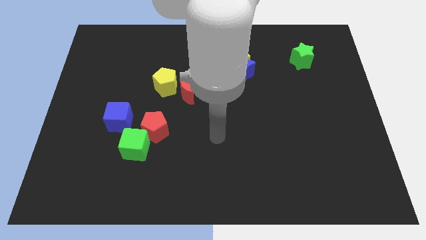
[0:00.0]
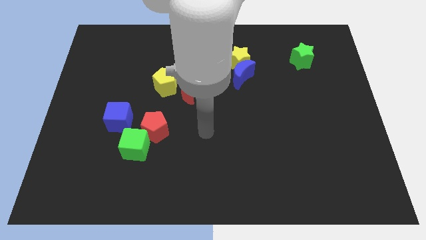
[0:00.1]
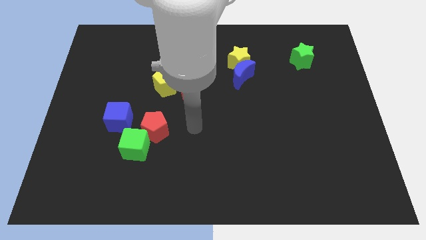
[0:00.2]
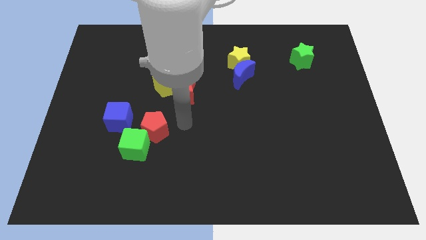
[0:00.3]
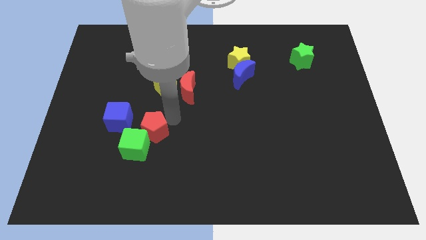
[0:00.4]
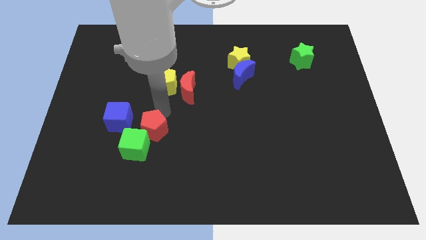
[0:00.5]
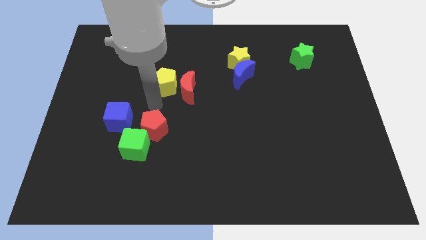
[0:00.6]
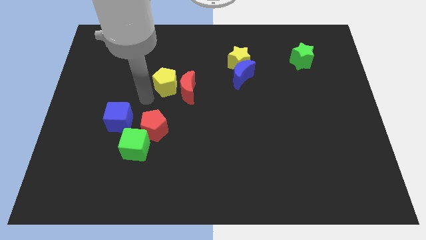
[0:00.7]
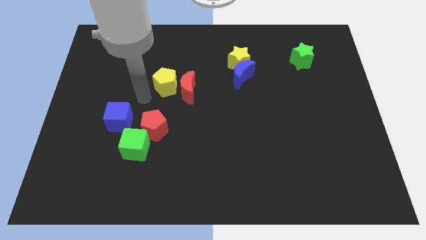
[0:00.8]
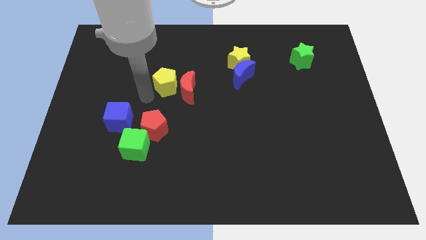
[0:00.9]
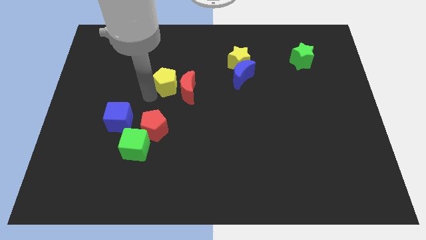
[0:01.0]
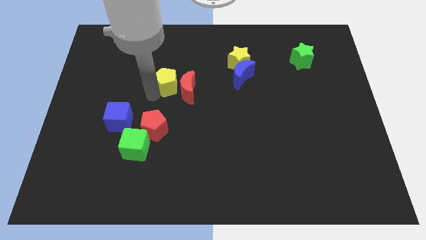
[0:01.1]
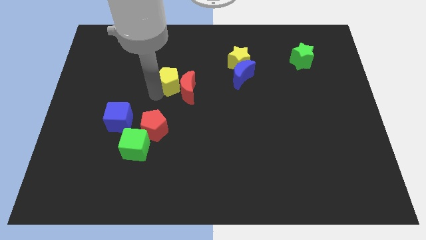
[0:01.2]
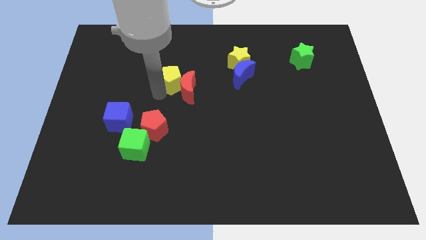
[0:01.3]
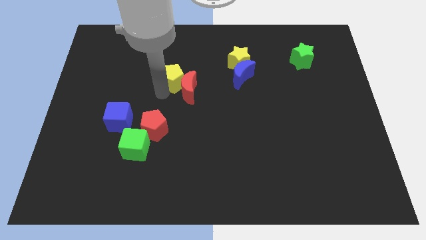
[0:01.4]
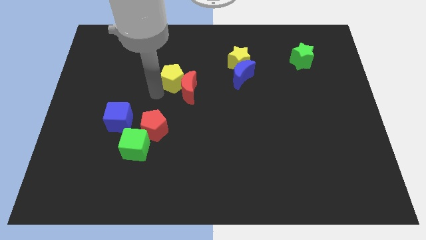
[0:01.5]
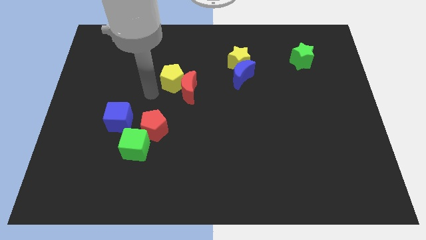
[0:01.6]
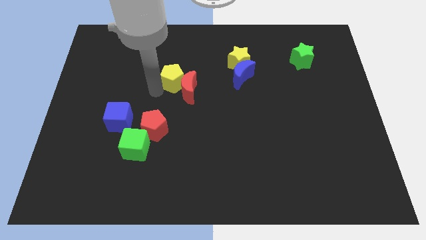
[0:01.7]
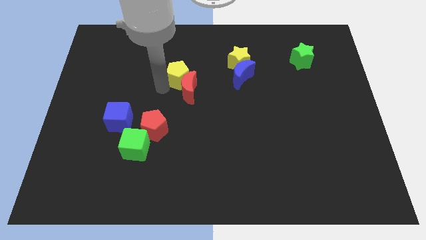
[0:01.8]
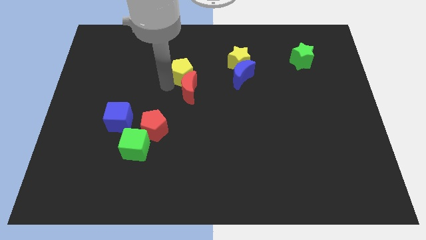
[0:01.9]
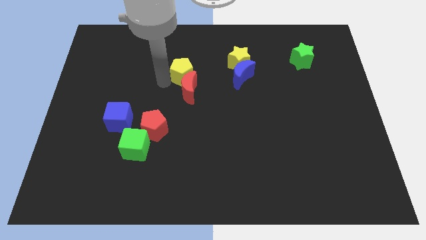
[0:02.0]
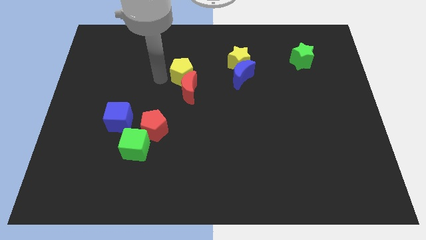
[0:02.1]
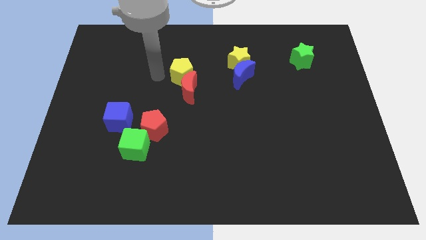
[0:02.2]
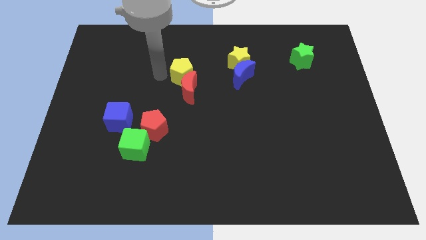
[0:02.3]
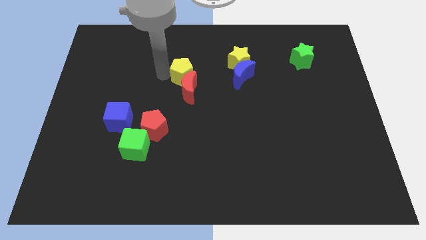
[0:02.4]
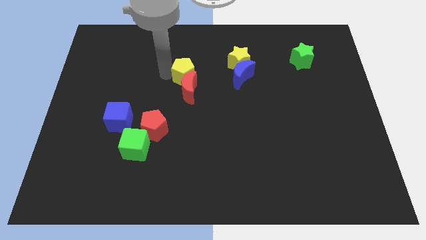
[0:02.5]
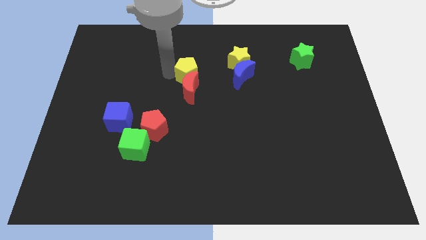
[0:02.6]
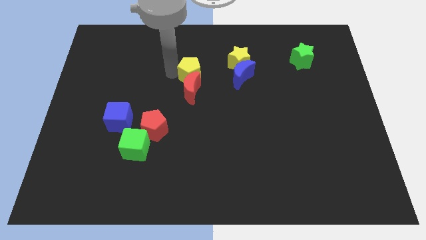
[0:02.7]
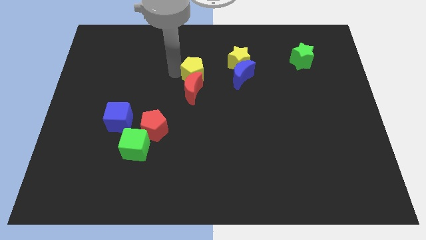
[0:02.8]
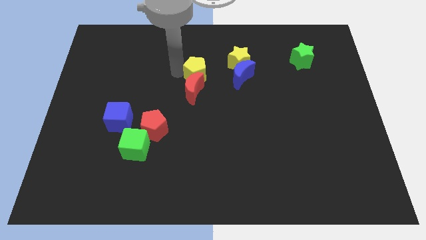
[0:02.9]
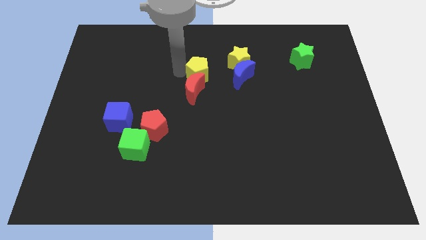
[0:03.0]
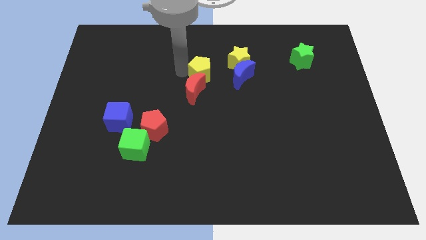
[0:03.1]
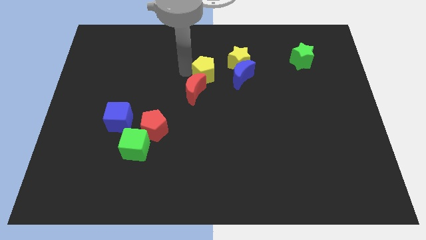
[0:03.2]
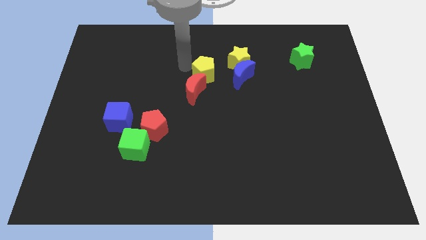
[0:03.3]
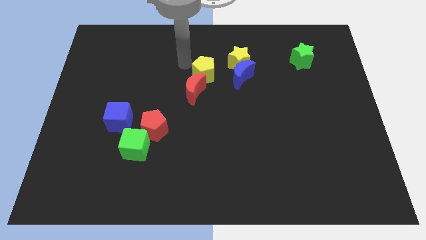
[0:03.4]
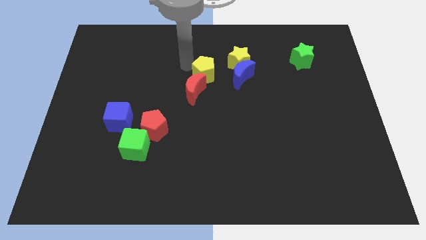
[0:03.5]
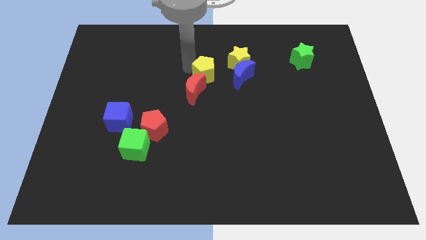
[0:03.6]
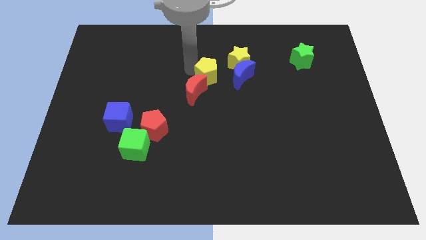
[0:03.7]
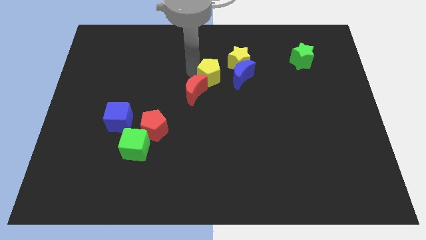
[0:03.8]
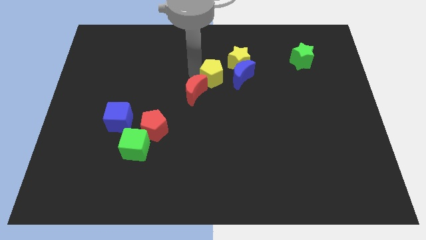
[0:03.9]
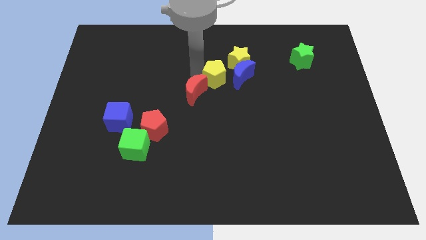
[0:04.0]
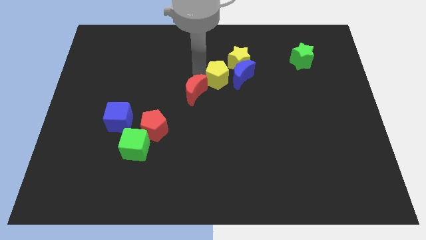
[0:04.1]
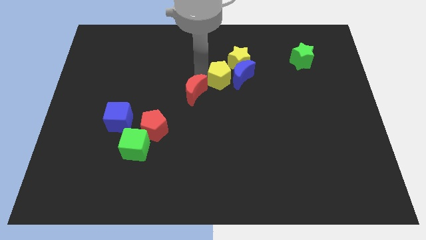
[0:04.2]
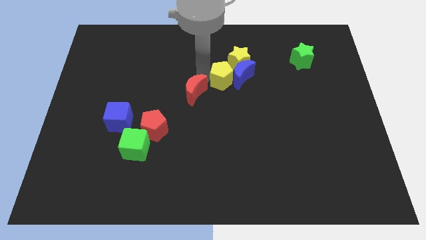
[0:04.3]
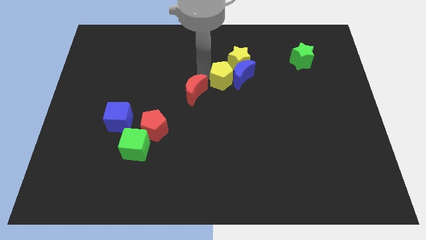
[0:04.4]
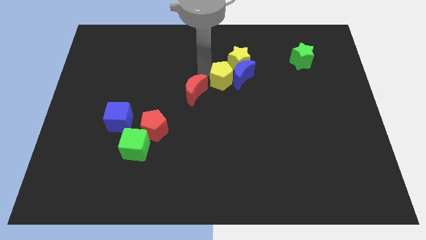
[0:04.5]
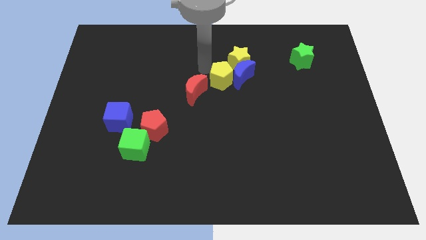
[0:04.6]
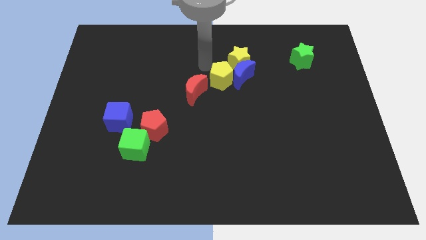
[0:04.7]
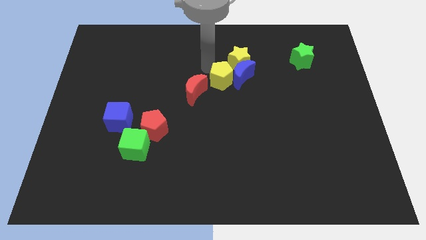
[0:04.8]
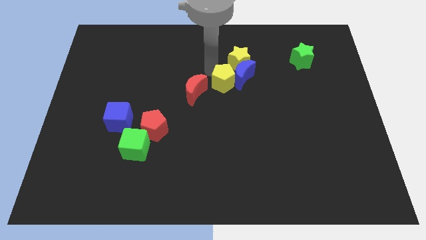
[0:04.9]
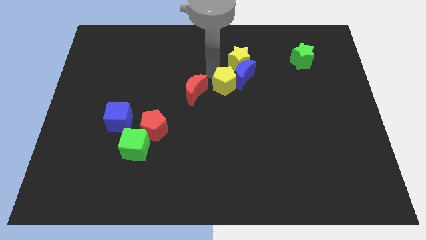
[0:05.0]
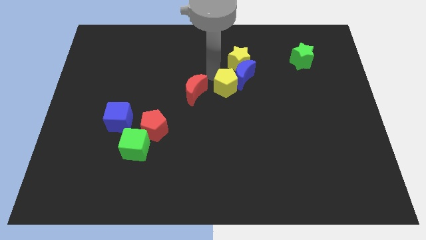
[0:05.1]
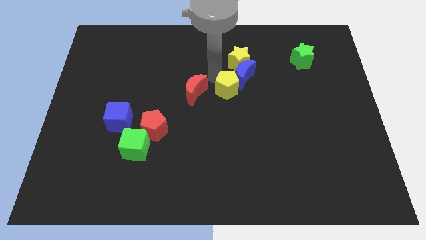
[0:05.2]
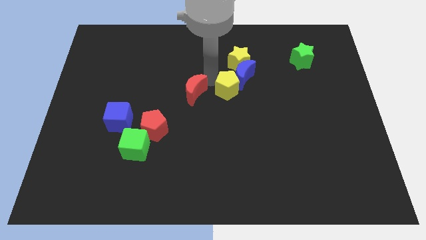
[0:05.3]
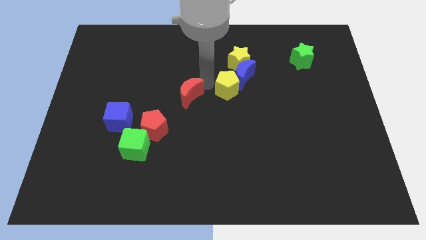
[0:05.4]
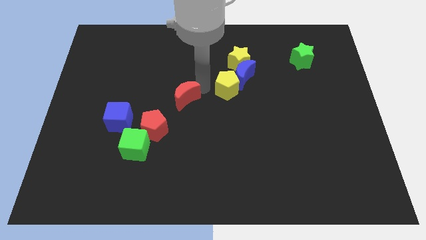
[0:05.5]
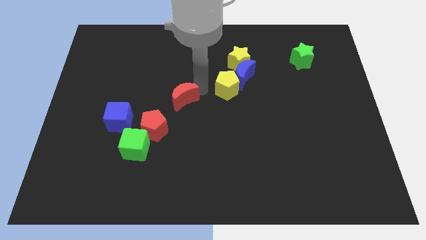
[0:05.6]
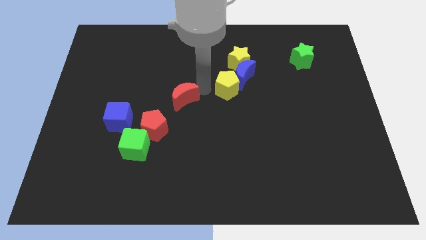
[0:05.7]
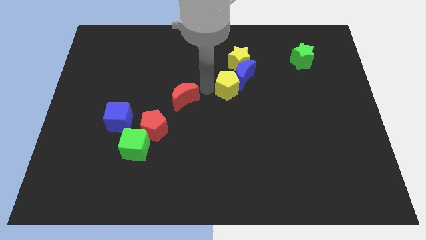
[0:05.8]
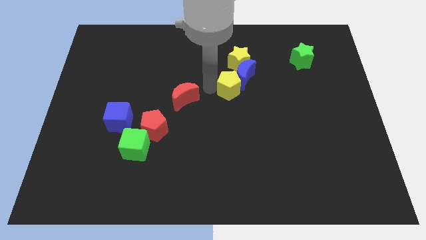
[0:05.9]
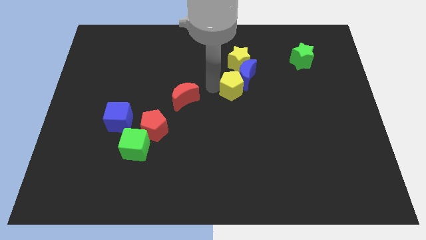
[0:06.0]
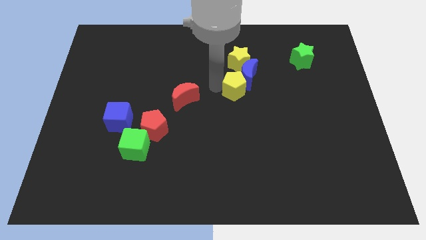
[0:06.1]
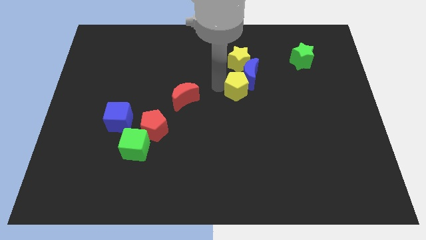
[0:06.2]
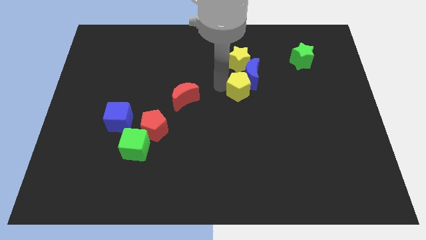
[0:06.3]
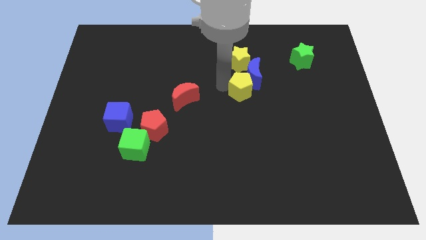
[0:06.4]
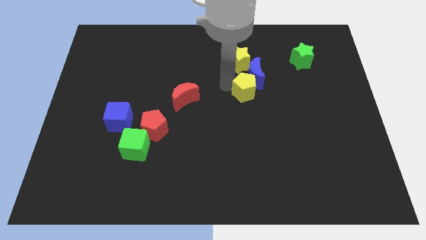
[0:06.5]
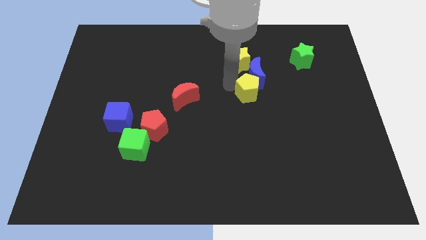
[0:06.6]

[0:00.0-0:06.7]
push the yellow pentagon right

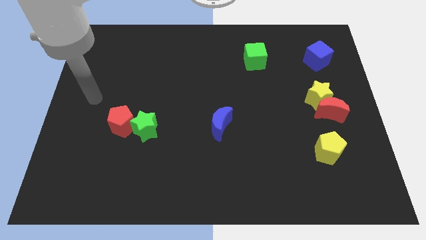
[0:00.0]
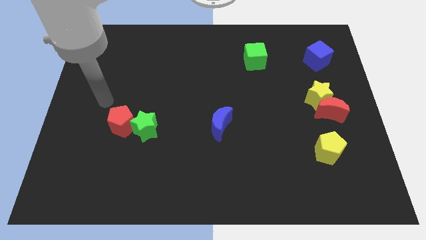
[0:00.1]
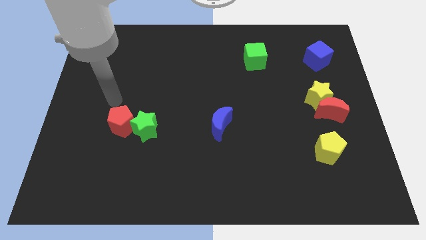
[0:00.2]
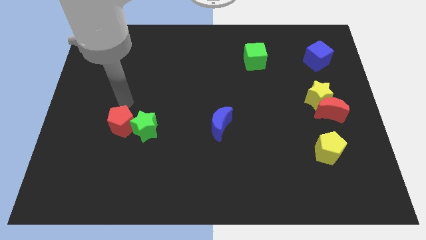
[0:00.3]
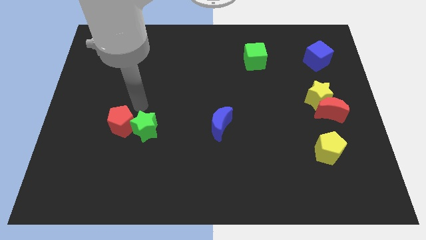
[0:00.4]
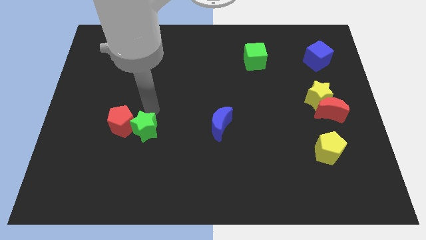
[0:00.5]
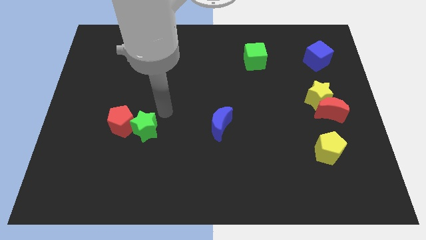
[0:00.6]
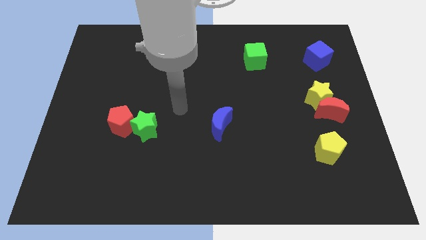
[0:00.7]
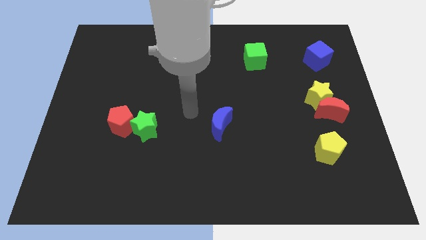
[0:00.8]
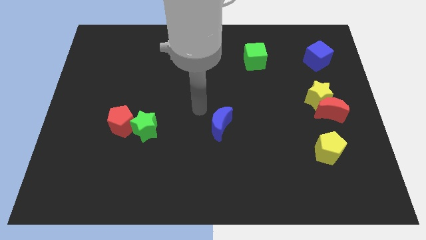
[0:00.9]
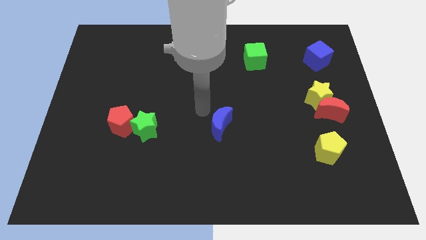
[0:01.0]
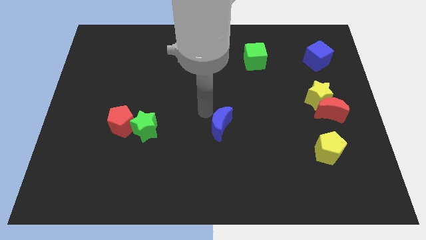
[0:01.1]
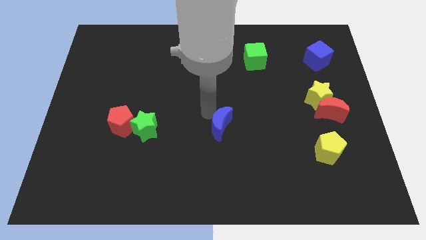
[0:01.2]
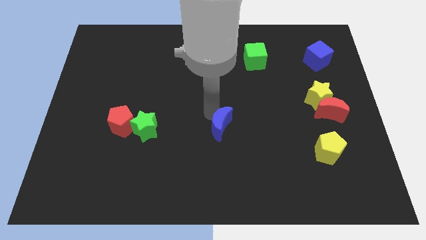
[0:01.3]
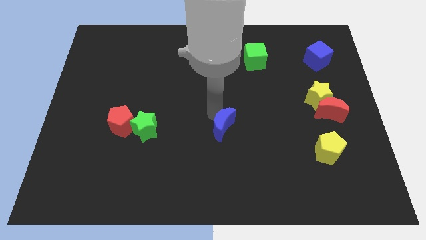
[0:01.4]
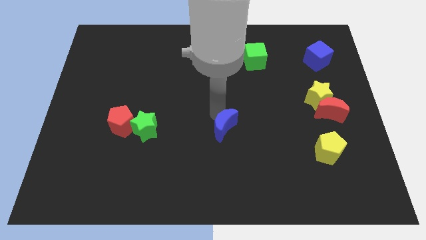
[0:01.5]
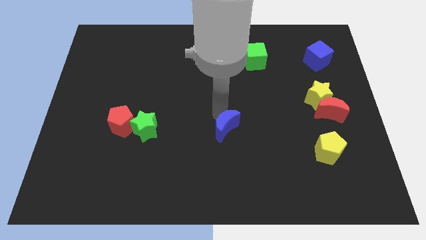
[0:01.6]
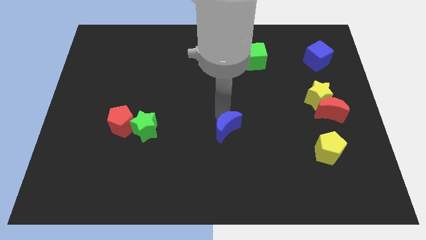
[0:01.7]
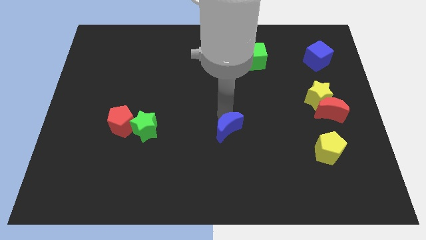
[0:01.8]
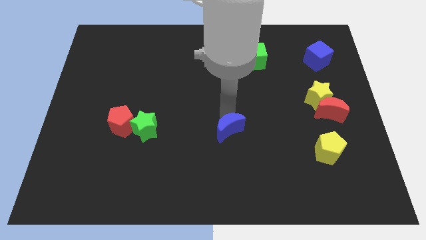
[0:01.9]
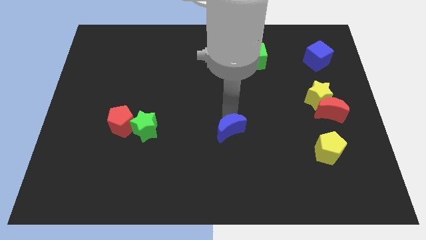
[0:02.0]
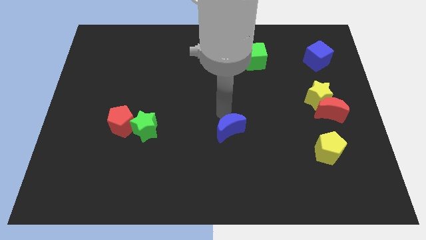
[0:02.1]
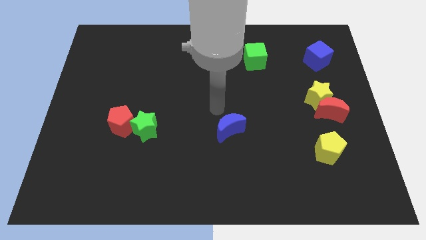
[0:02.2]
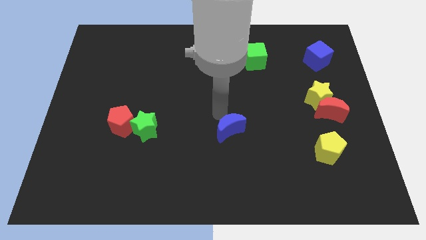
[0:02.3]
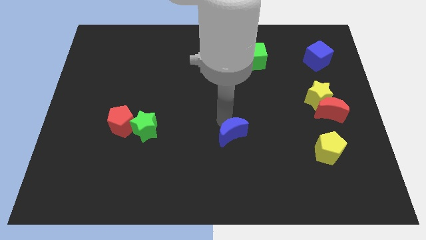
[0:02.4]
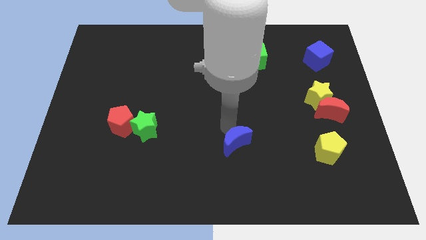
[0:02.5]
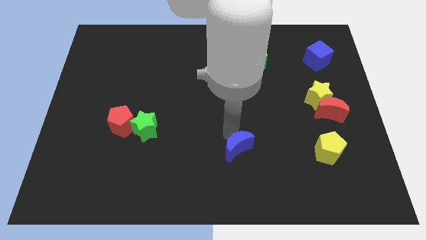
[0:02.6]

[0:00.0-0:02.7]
slide the blue moon downwards and then to the right a little
